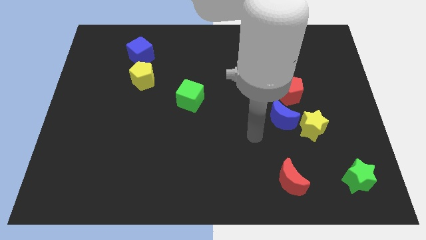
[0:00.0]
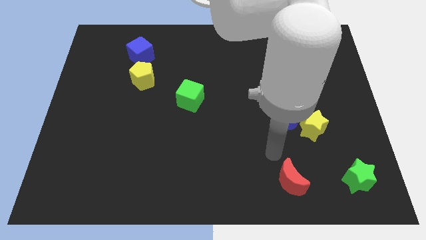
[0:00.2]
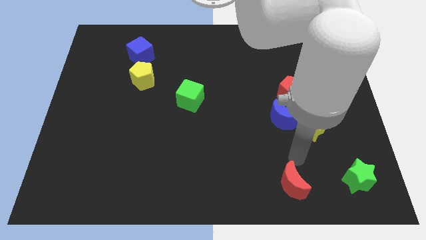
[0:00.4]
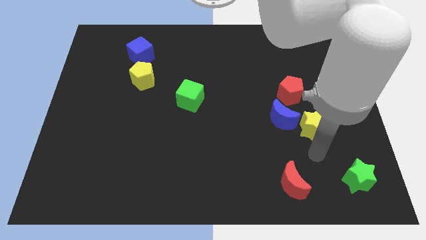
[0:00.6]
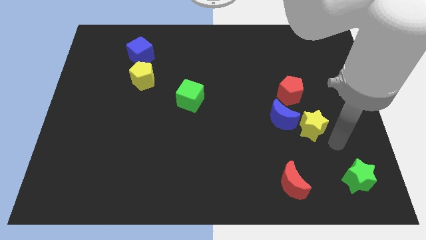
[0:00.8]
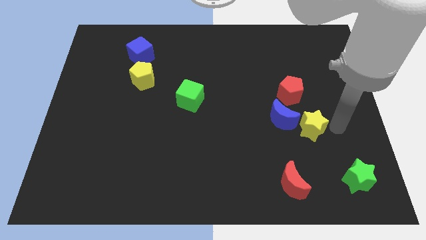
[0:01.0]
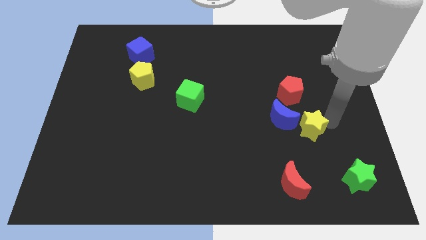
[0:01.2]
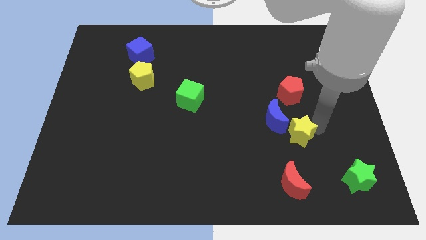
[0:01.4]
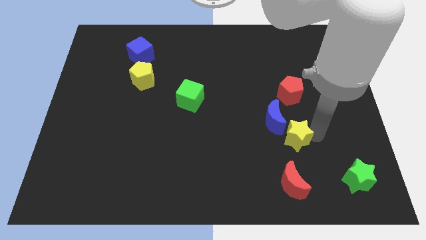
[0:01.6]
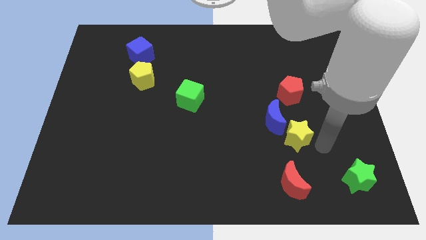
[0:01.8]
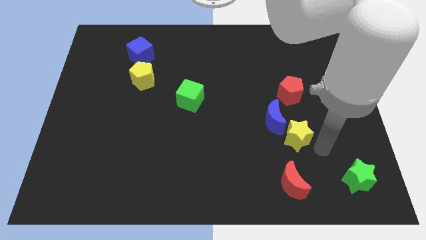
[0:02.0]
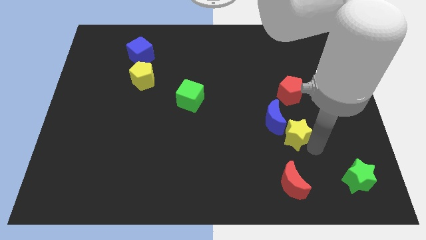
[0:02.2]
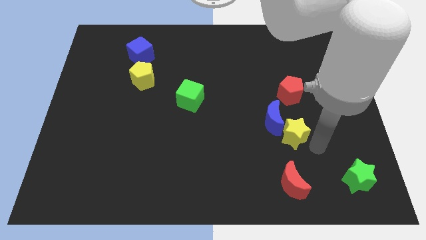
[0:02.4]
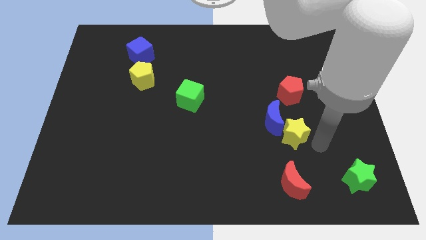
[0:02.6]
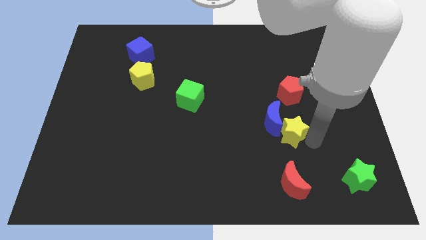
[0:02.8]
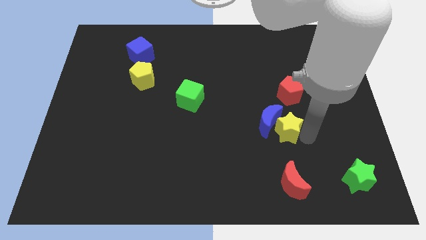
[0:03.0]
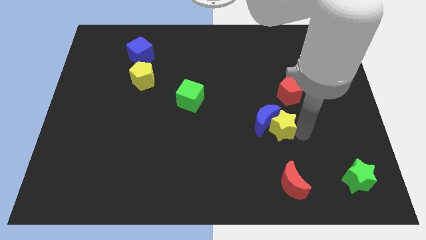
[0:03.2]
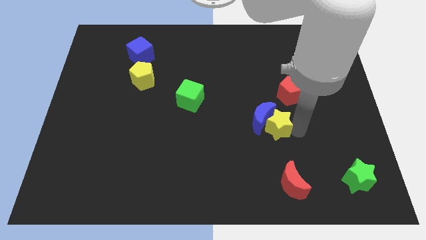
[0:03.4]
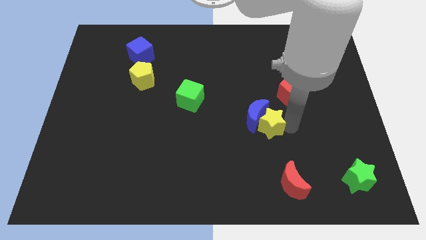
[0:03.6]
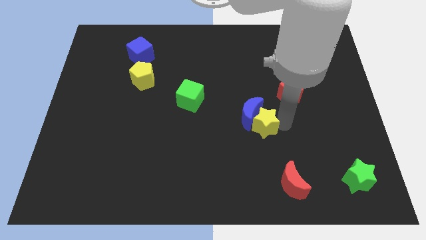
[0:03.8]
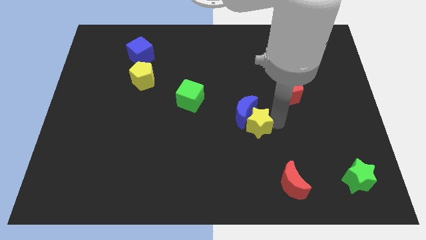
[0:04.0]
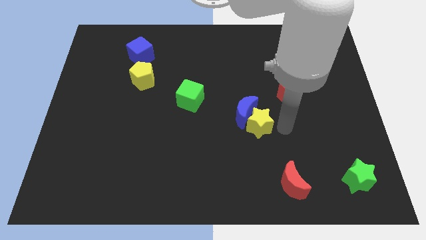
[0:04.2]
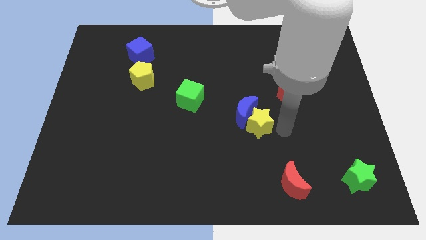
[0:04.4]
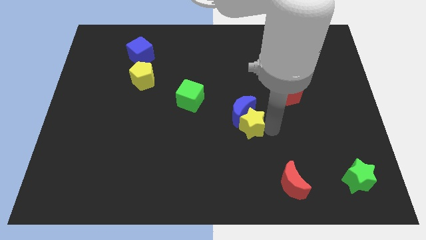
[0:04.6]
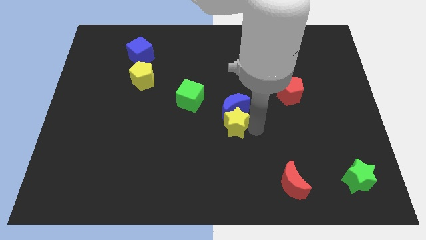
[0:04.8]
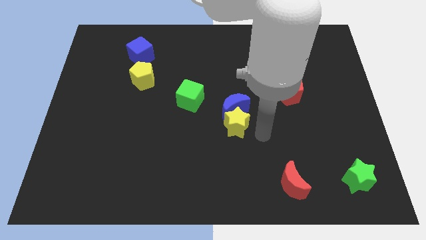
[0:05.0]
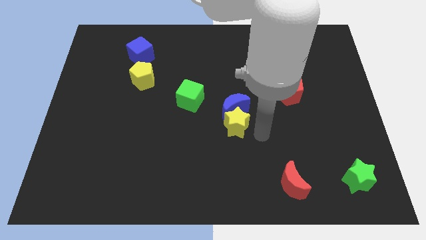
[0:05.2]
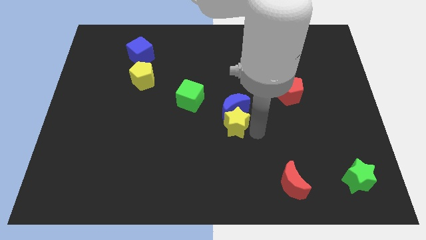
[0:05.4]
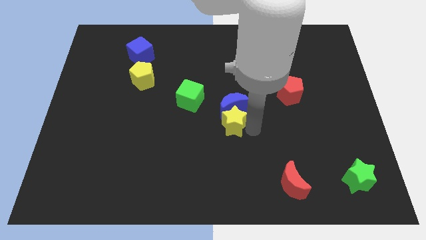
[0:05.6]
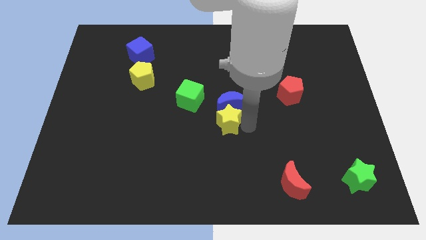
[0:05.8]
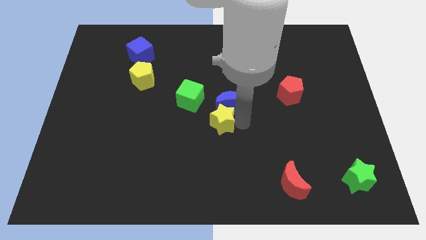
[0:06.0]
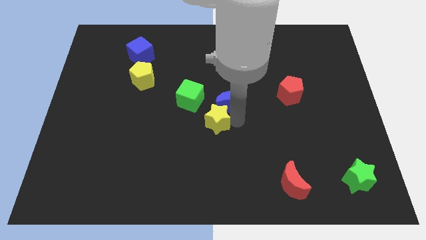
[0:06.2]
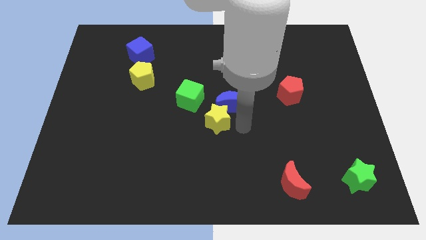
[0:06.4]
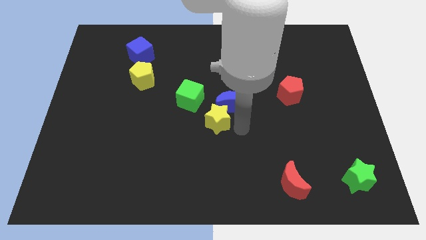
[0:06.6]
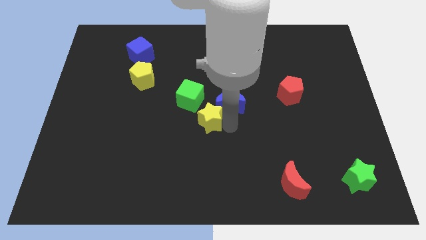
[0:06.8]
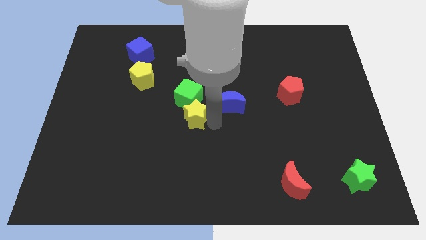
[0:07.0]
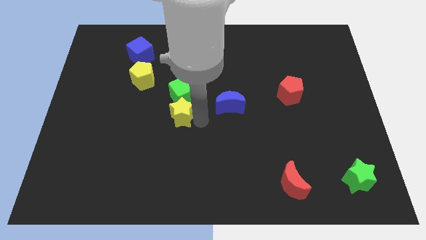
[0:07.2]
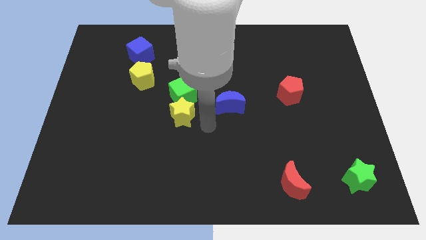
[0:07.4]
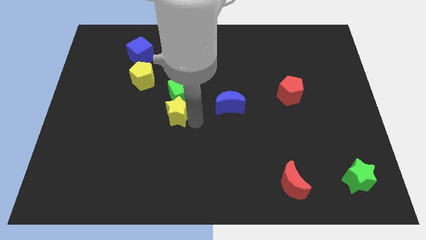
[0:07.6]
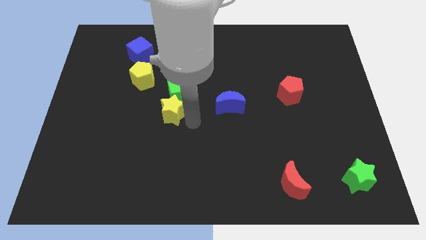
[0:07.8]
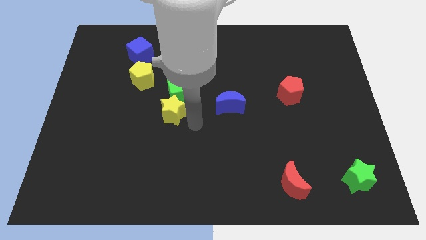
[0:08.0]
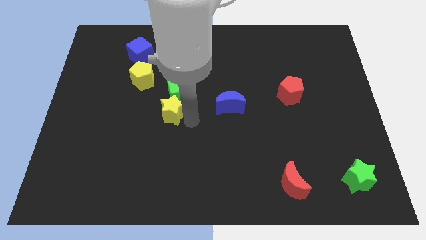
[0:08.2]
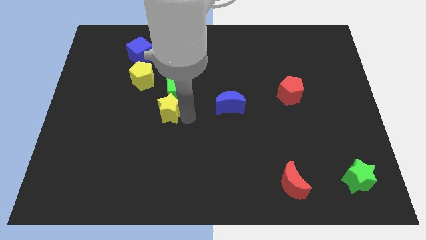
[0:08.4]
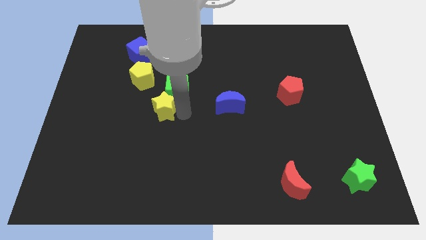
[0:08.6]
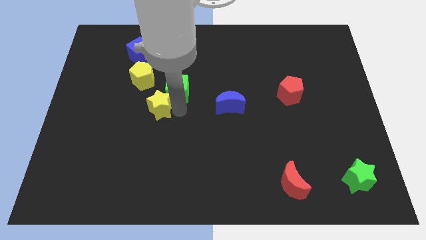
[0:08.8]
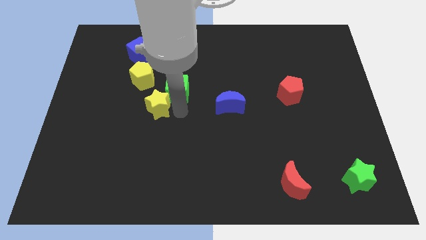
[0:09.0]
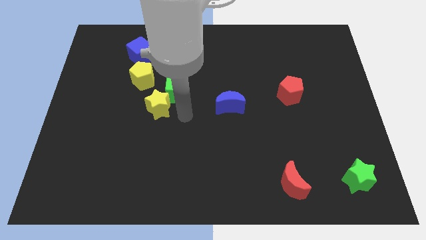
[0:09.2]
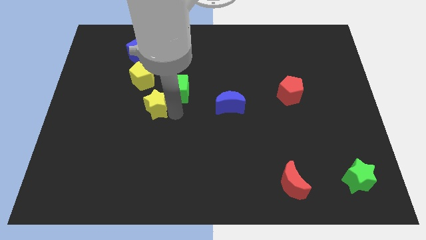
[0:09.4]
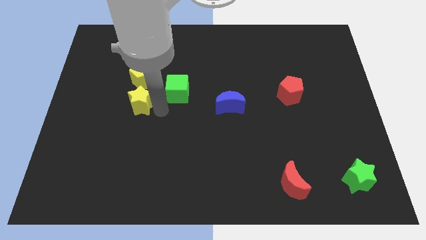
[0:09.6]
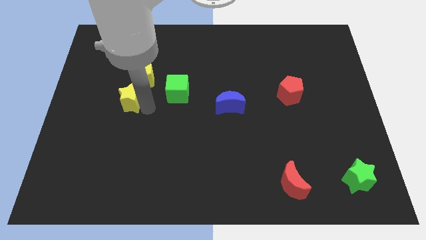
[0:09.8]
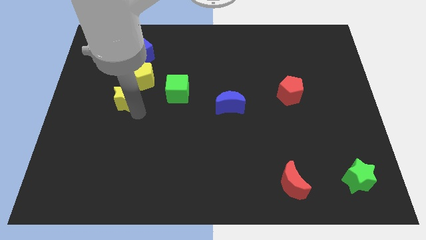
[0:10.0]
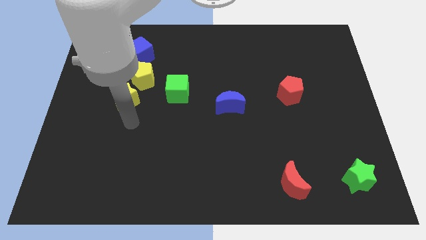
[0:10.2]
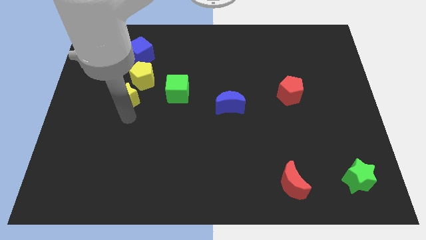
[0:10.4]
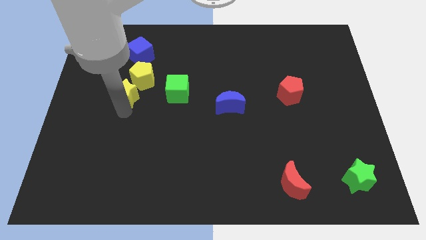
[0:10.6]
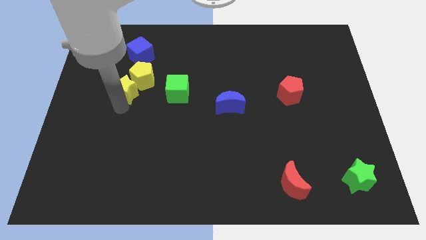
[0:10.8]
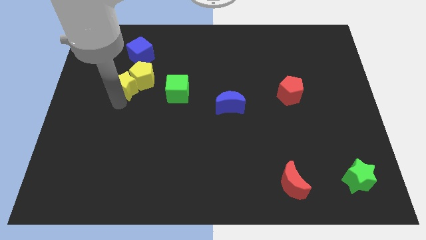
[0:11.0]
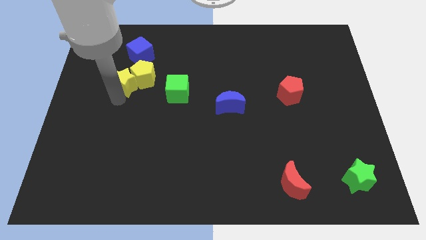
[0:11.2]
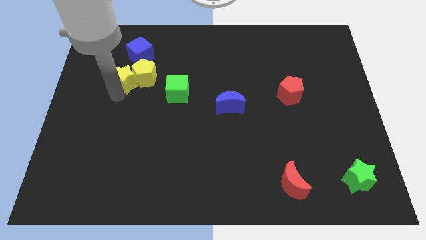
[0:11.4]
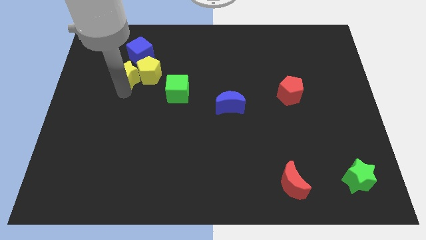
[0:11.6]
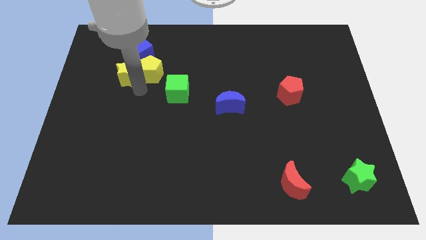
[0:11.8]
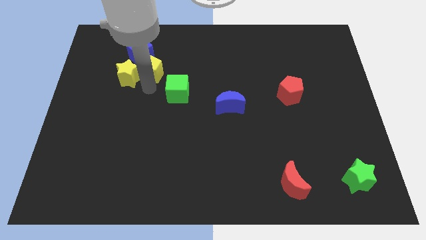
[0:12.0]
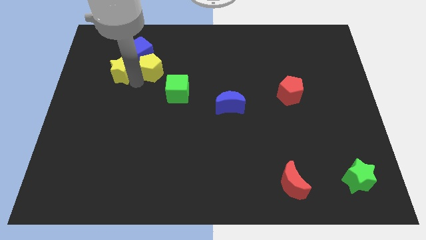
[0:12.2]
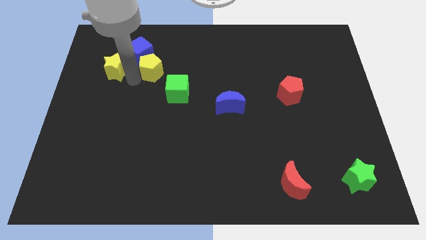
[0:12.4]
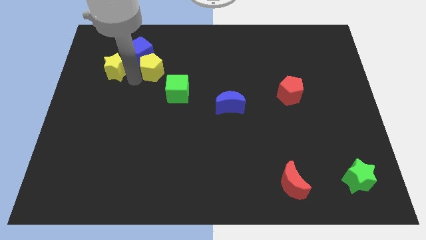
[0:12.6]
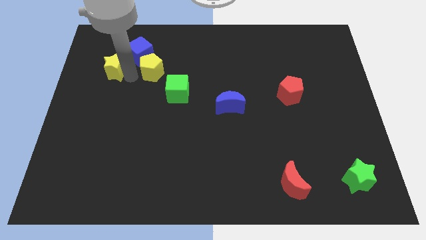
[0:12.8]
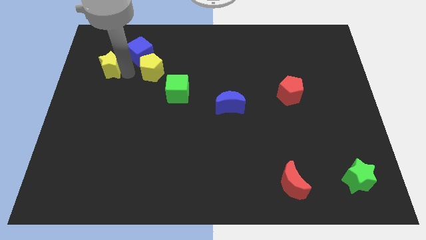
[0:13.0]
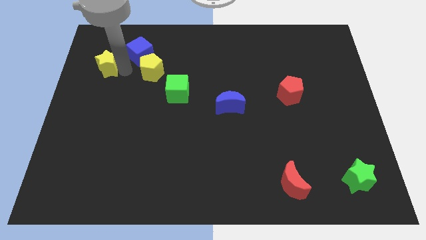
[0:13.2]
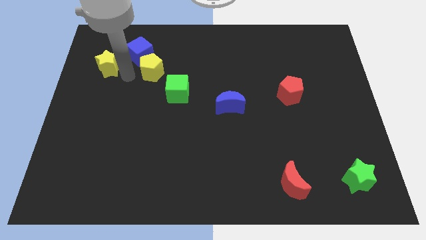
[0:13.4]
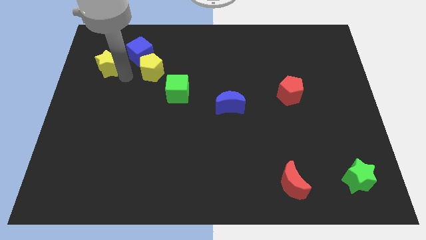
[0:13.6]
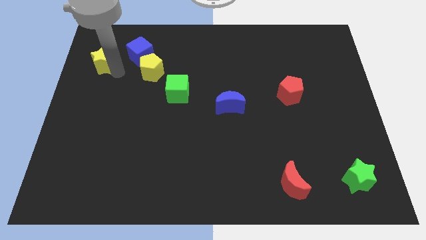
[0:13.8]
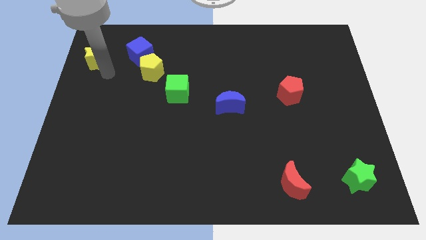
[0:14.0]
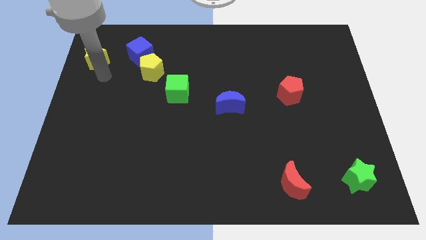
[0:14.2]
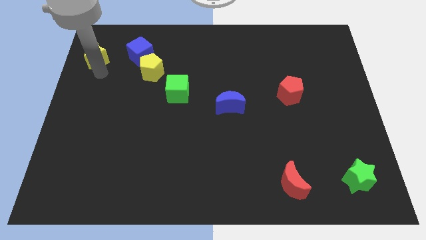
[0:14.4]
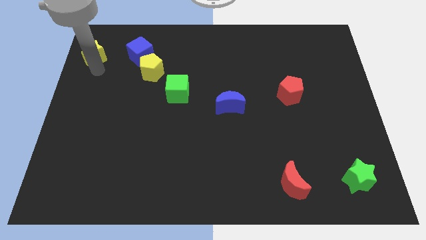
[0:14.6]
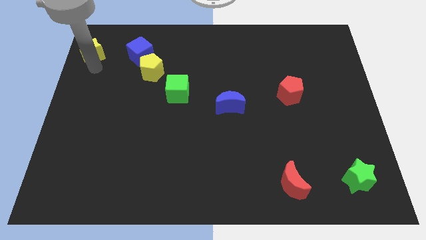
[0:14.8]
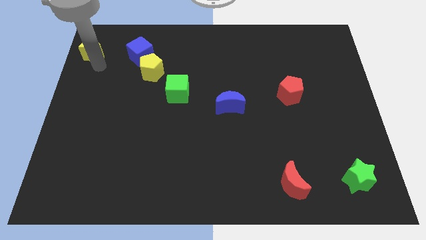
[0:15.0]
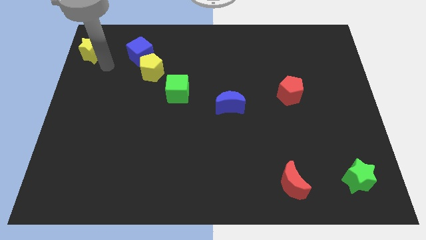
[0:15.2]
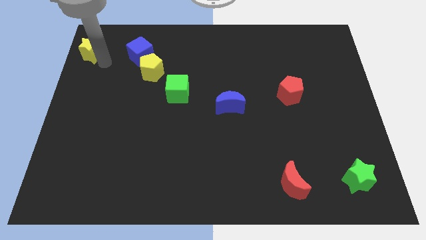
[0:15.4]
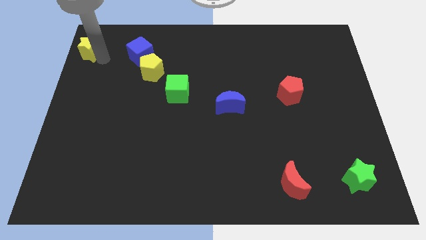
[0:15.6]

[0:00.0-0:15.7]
push the yellow star to the top left of the board
